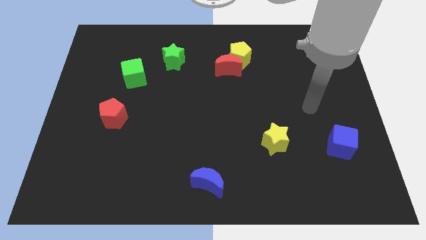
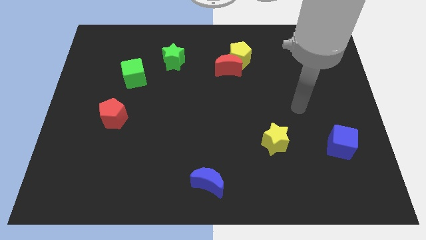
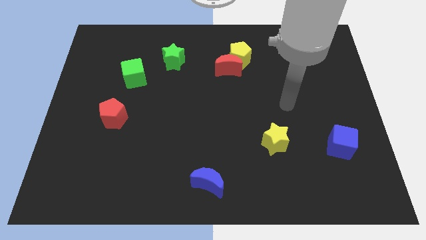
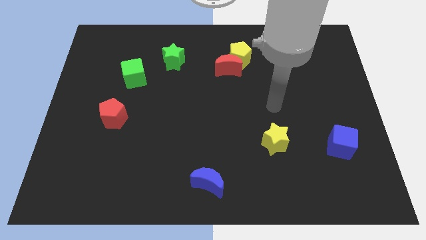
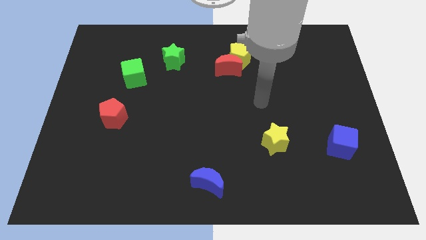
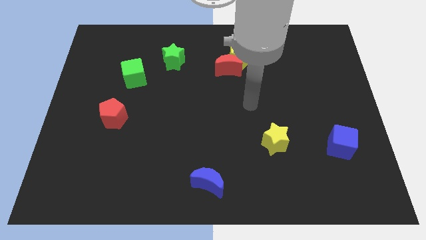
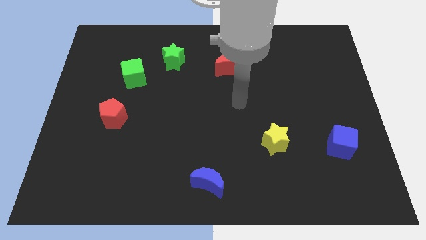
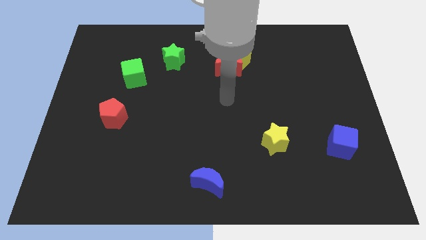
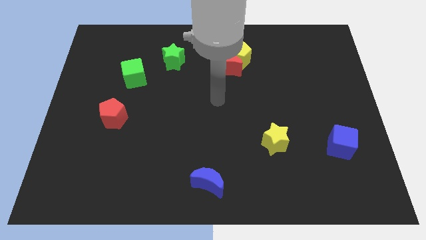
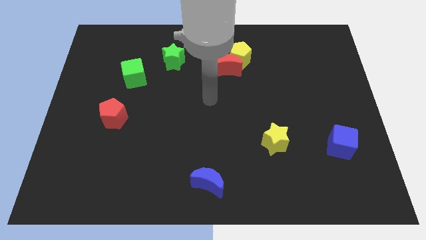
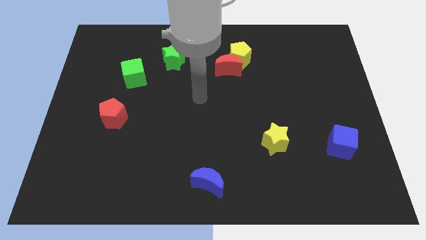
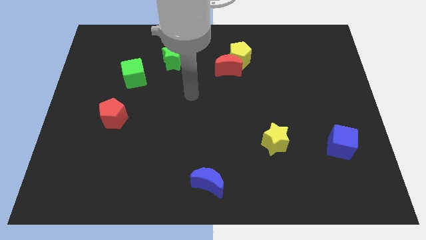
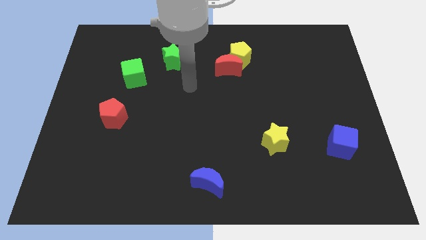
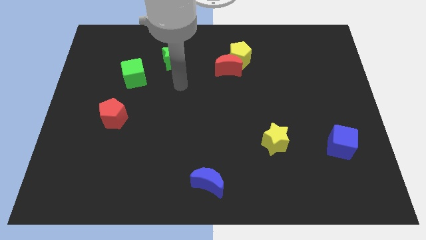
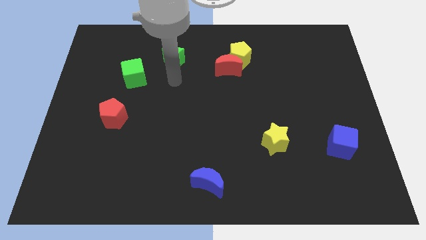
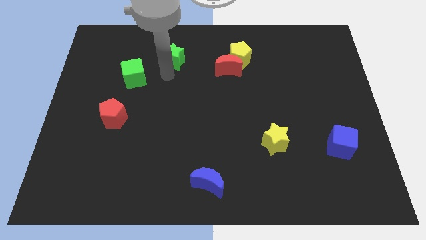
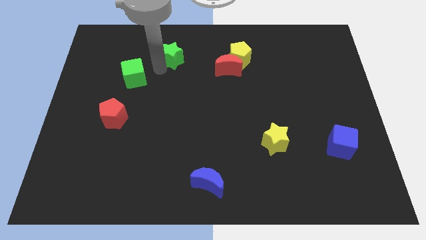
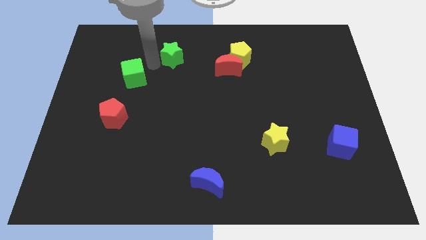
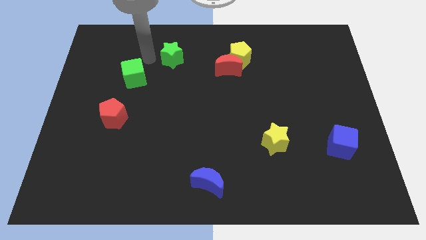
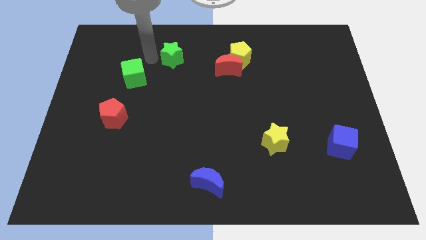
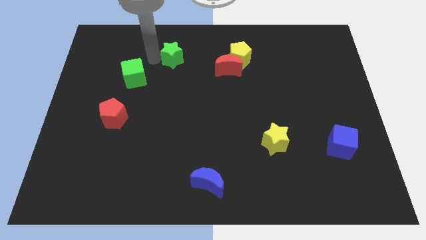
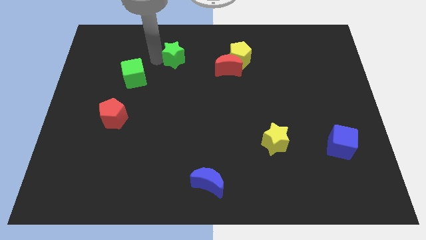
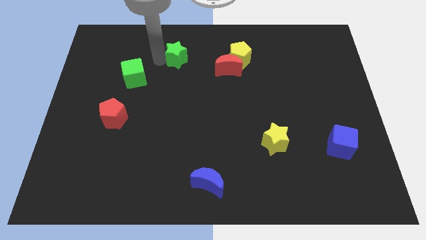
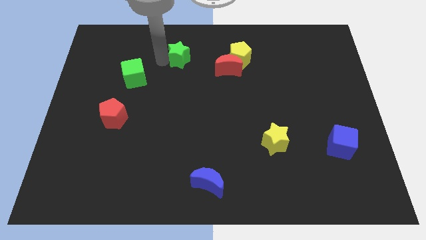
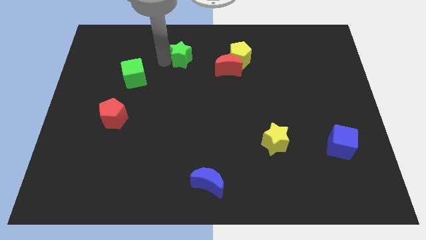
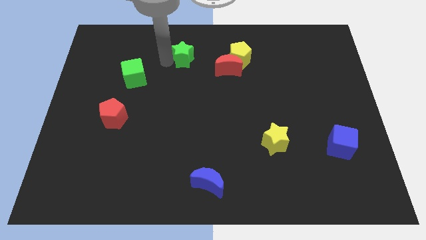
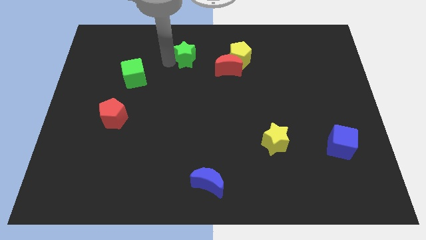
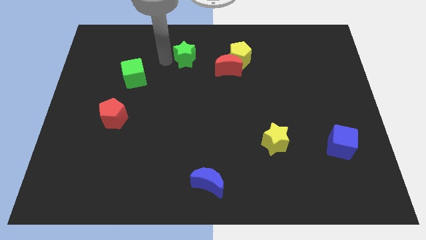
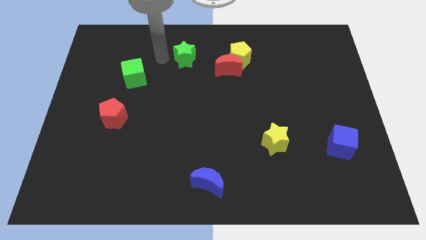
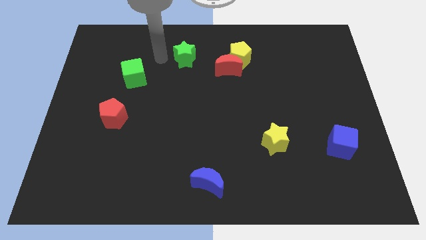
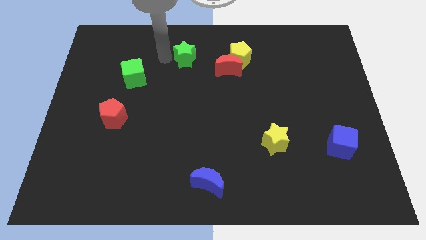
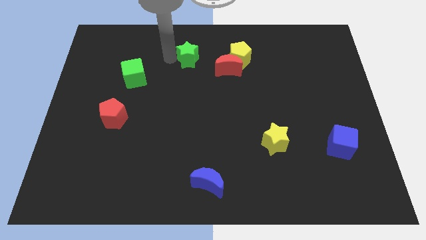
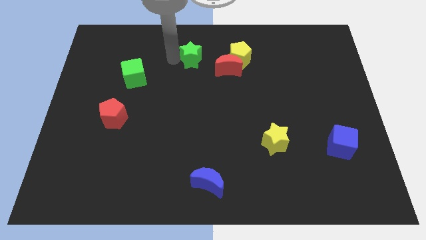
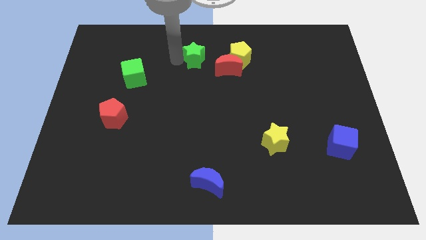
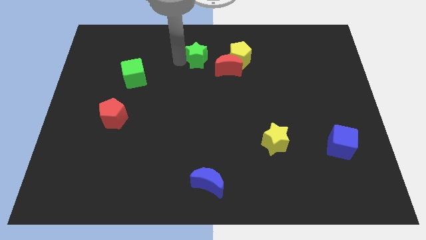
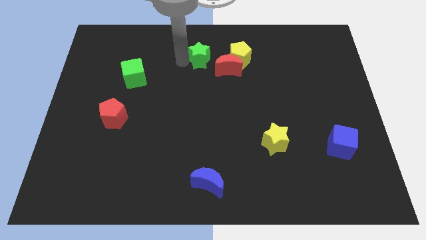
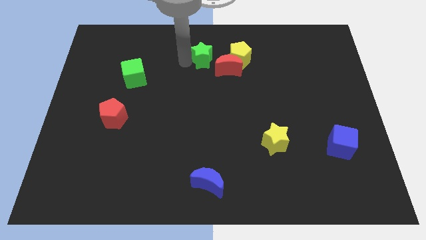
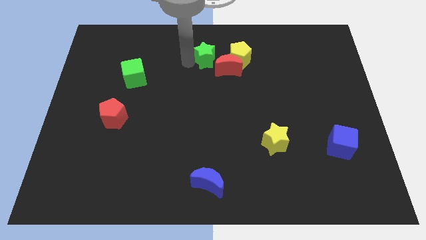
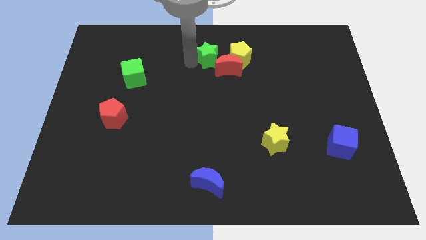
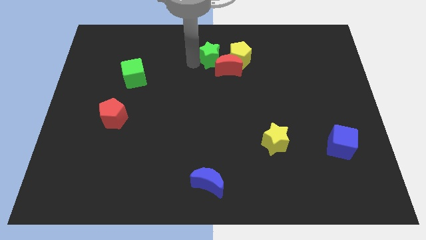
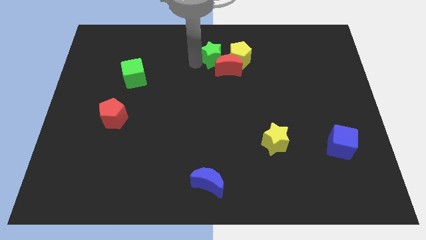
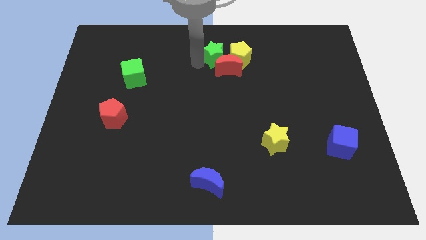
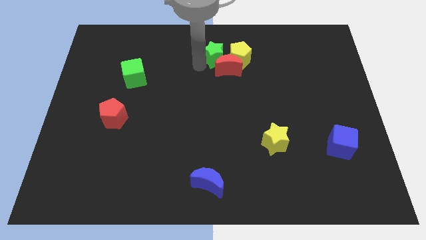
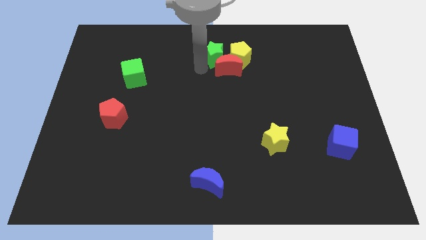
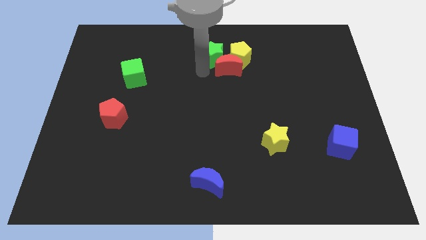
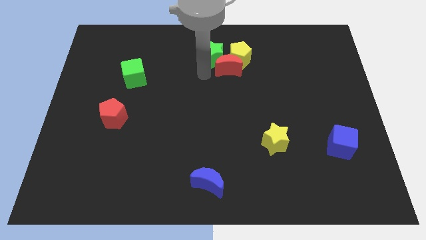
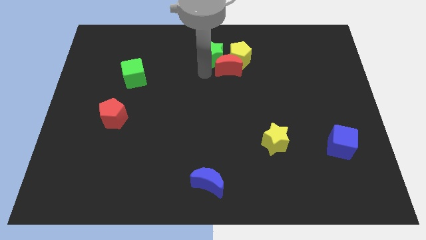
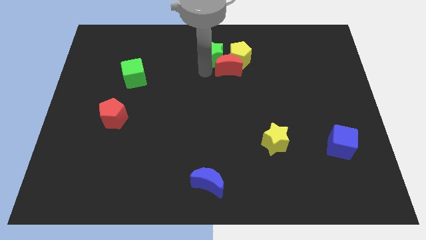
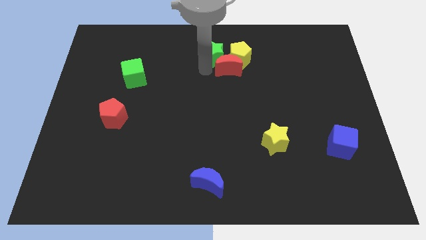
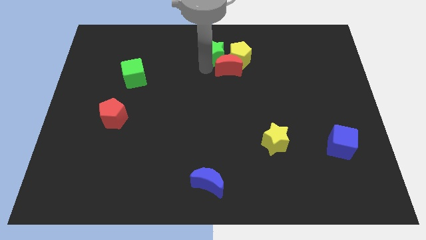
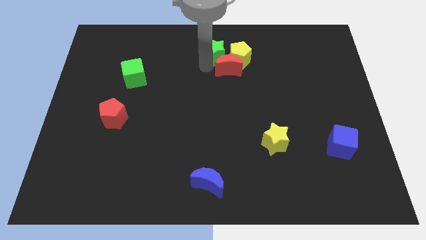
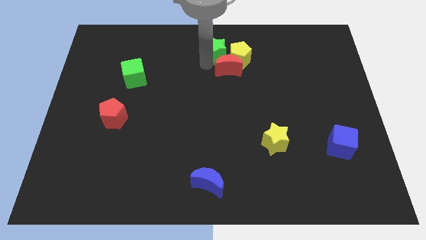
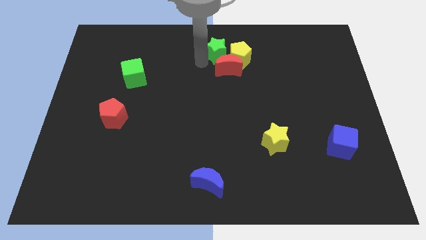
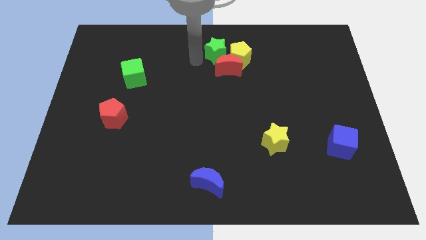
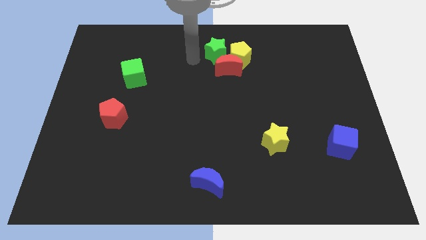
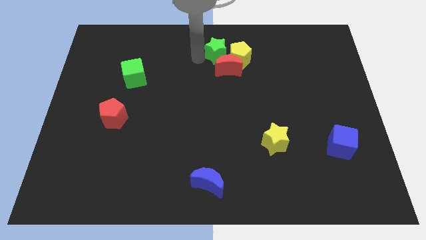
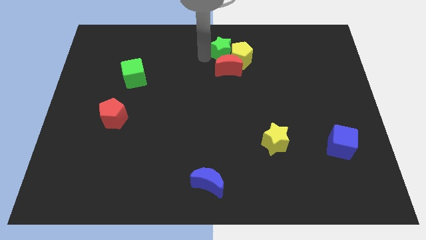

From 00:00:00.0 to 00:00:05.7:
push the green star close to the yellow pentagon

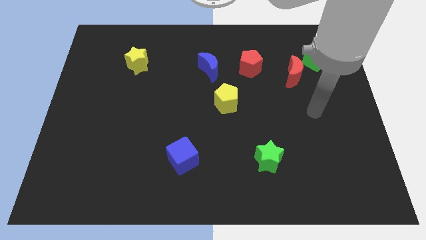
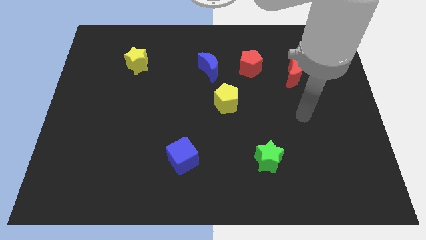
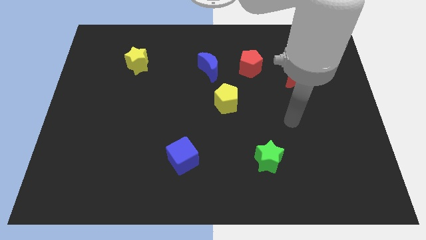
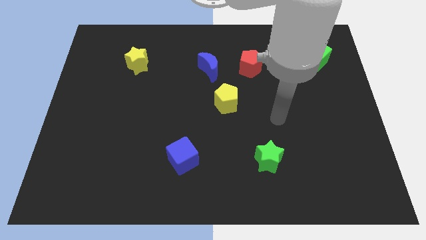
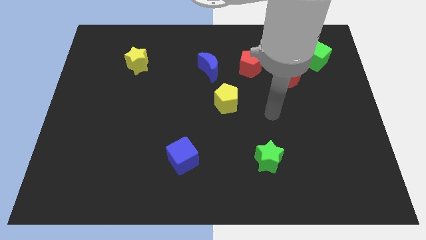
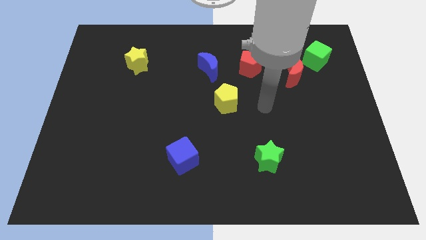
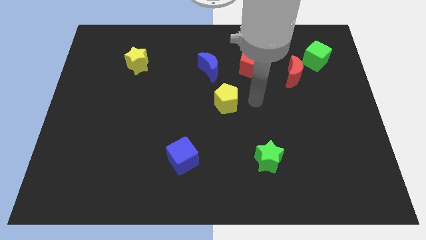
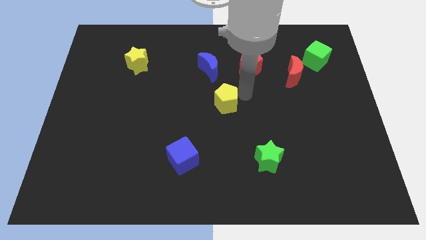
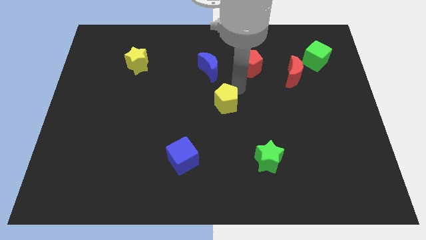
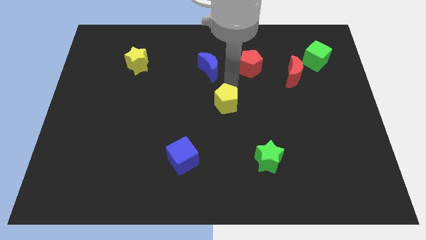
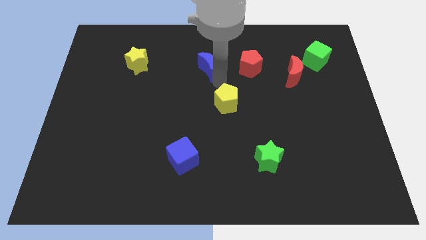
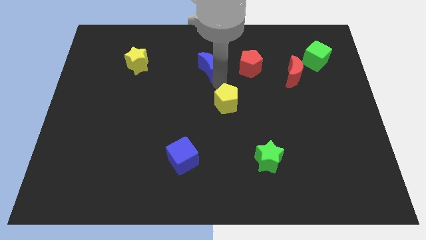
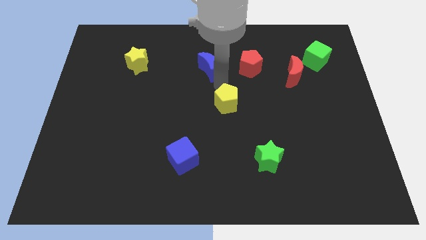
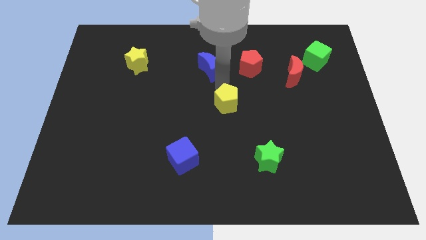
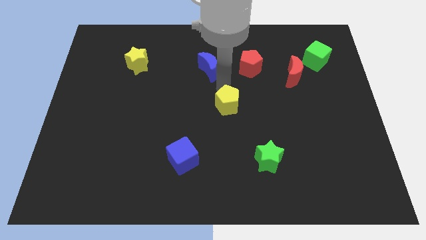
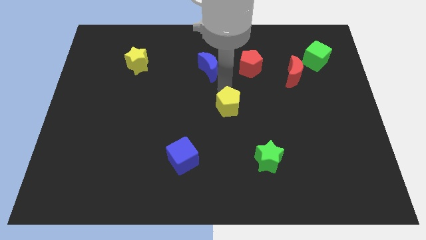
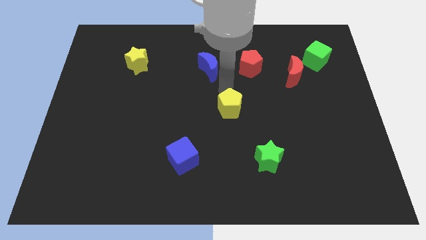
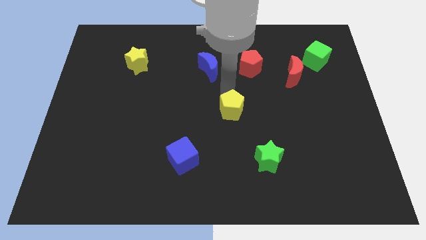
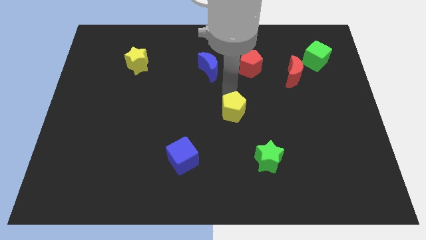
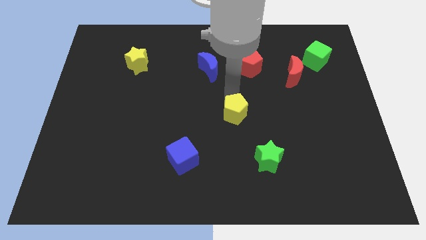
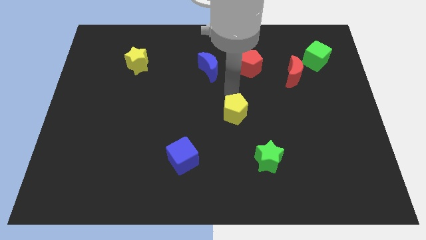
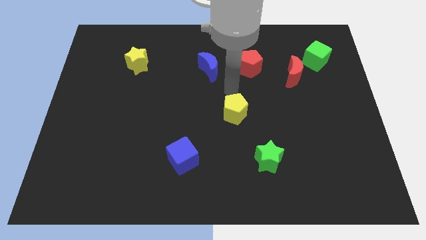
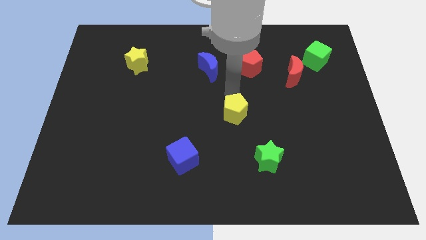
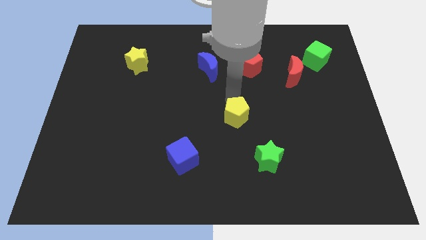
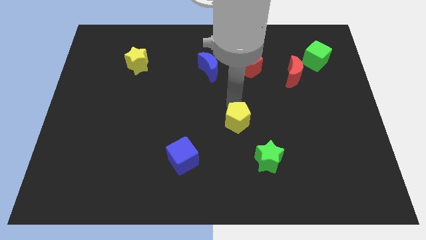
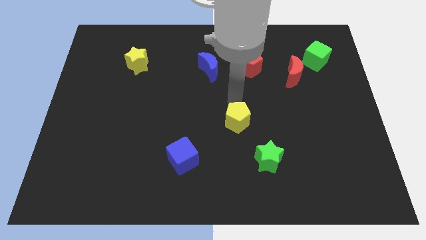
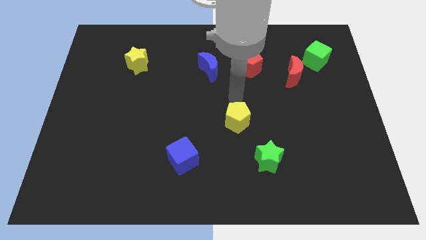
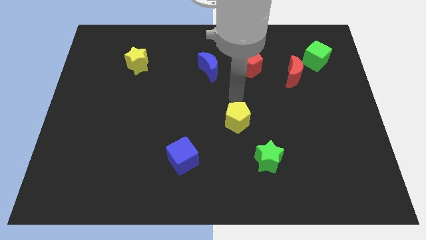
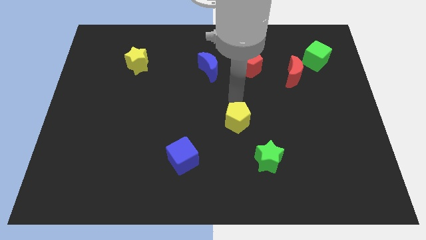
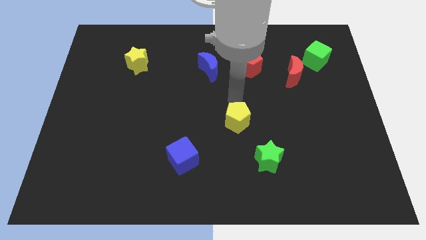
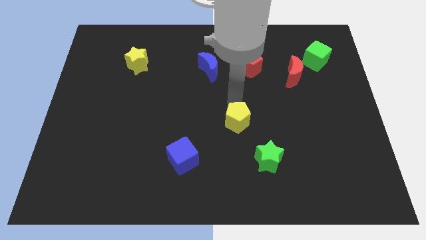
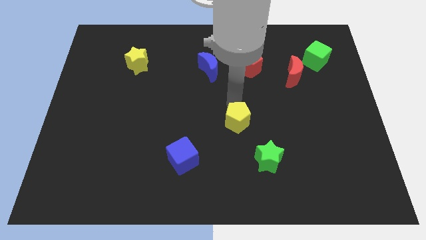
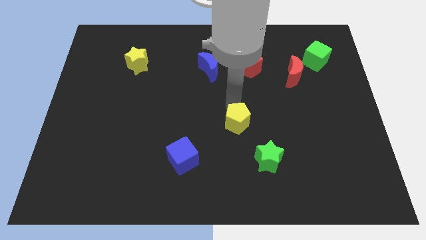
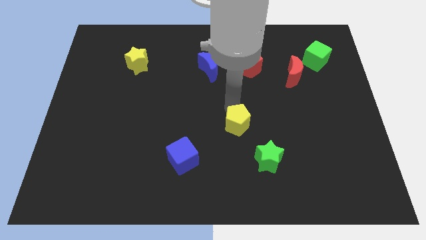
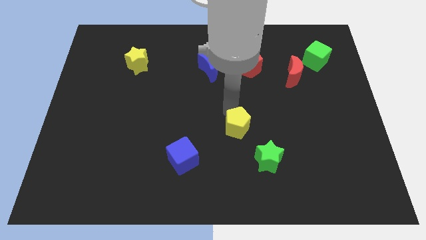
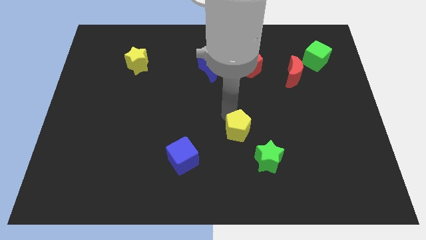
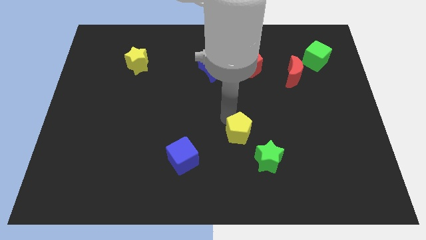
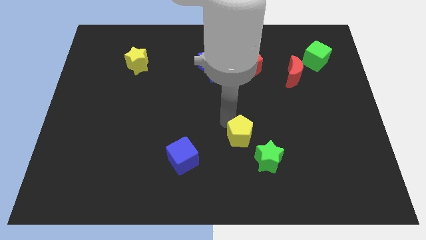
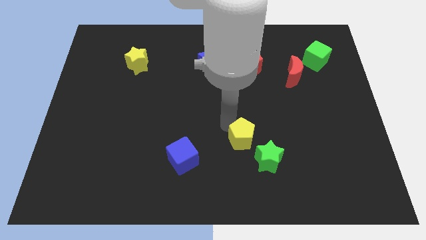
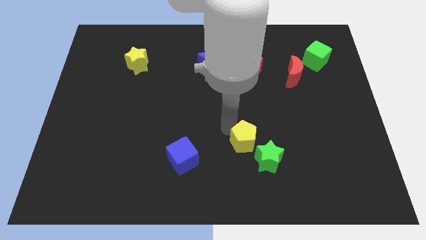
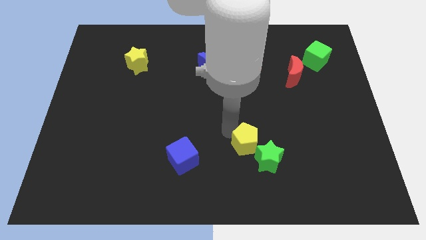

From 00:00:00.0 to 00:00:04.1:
move the yellow pentagon towards the green star
